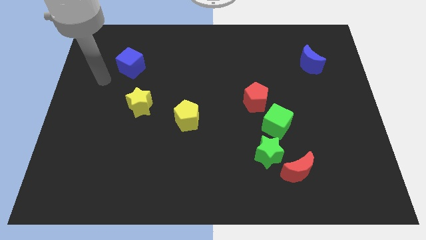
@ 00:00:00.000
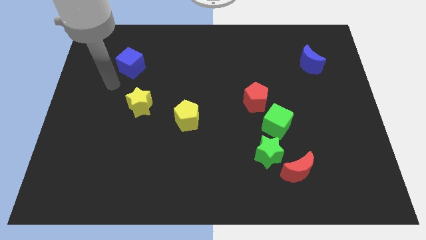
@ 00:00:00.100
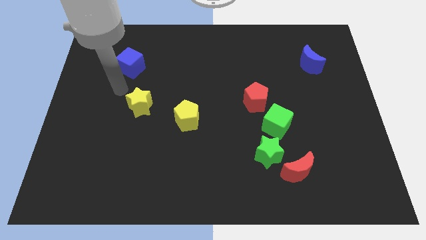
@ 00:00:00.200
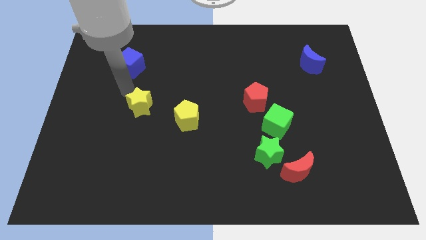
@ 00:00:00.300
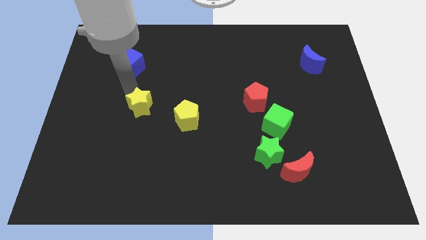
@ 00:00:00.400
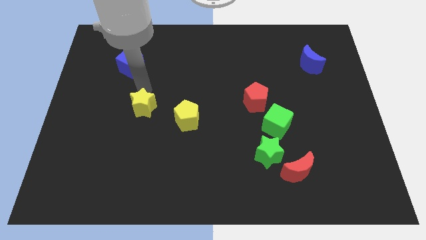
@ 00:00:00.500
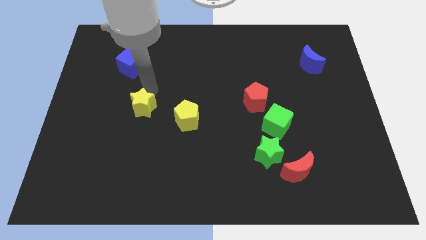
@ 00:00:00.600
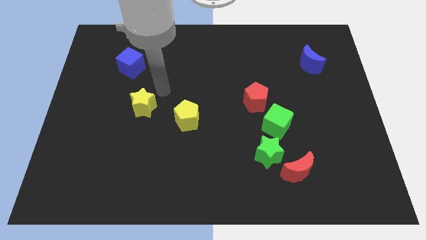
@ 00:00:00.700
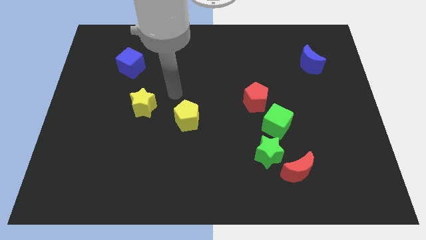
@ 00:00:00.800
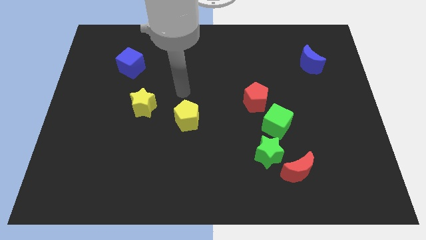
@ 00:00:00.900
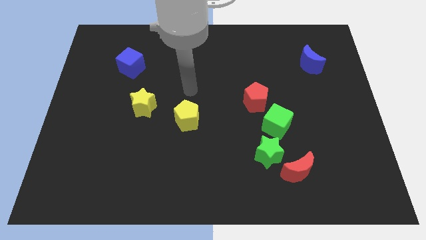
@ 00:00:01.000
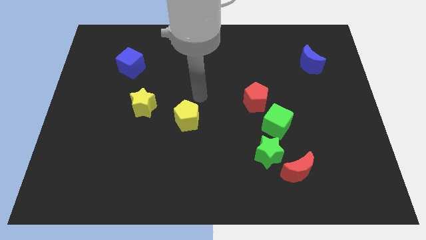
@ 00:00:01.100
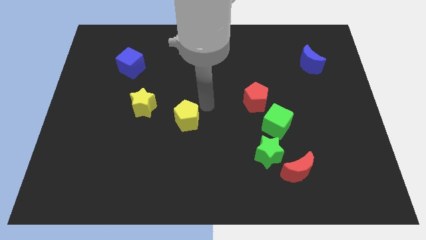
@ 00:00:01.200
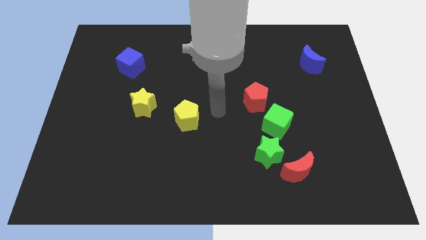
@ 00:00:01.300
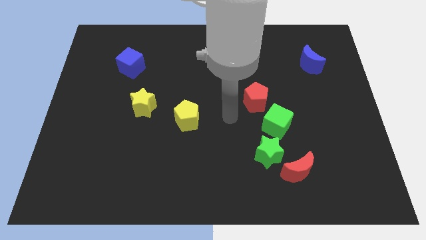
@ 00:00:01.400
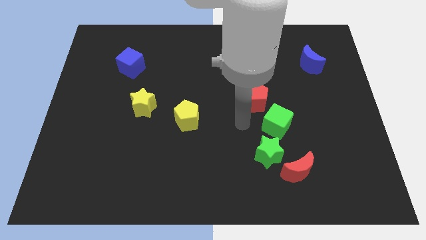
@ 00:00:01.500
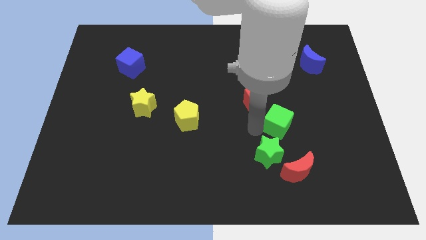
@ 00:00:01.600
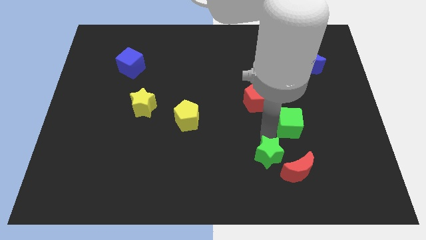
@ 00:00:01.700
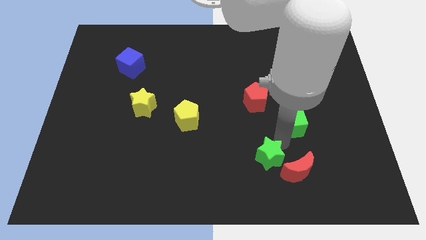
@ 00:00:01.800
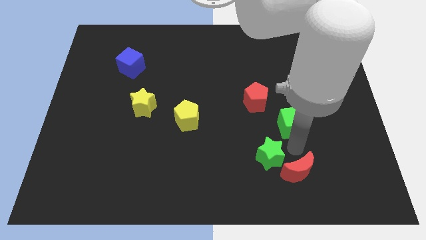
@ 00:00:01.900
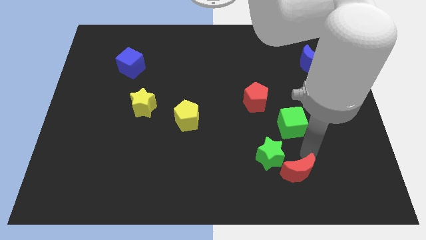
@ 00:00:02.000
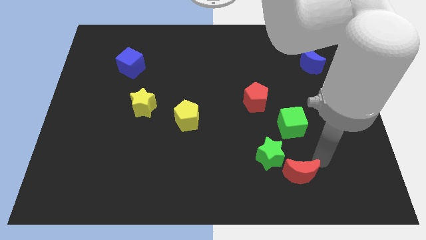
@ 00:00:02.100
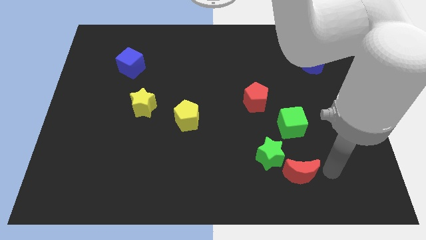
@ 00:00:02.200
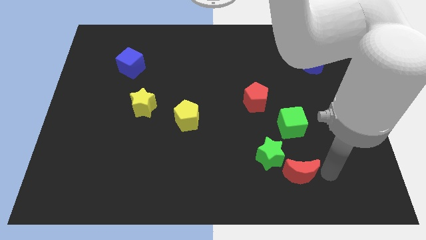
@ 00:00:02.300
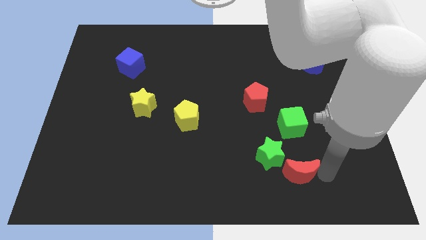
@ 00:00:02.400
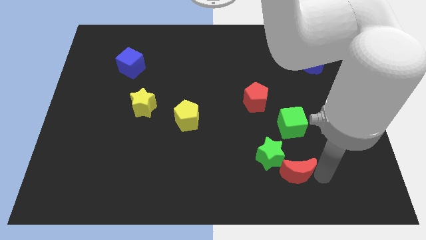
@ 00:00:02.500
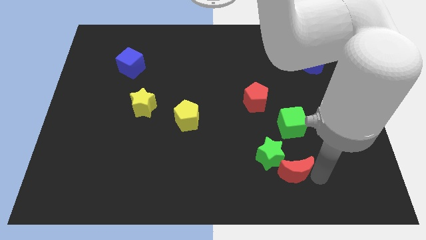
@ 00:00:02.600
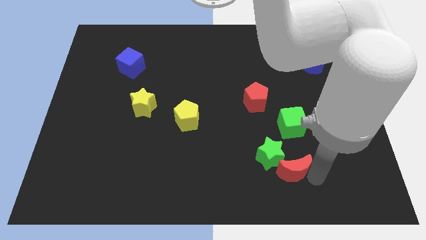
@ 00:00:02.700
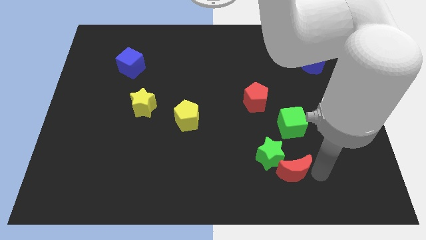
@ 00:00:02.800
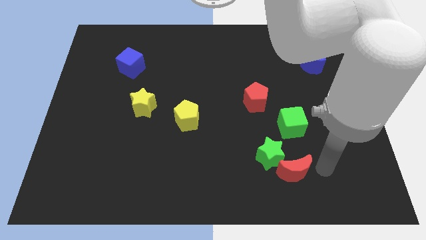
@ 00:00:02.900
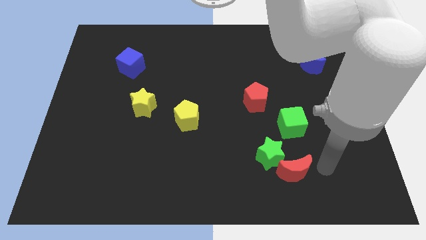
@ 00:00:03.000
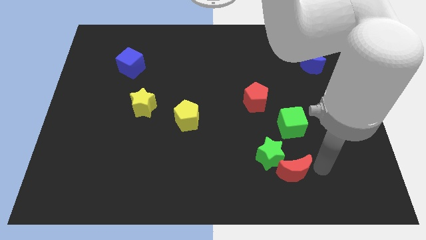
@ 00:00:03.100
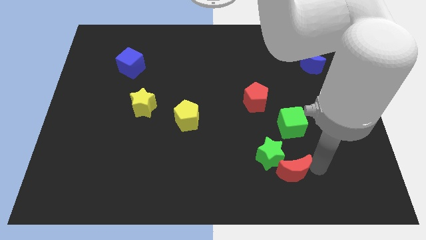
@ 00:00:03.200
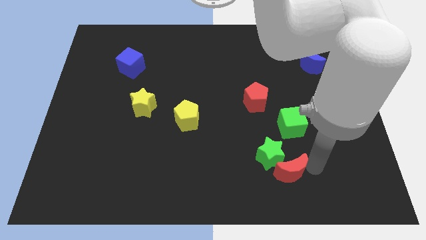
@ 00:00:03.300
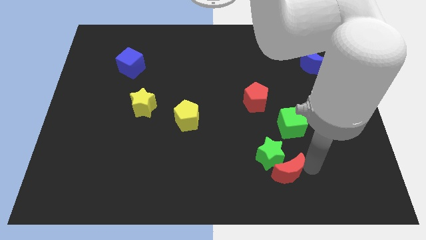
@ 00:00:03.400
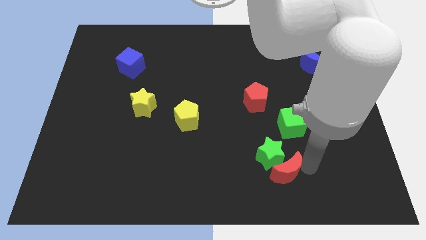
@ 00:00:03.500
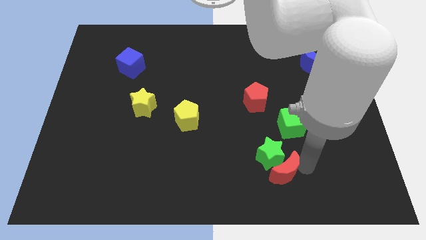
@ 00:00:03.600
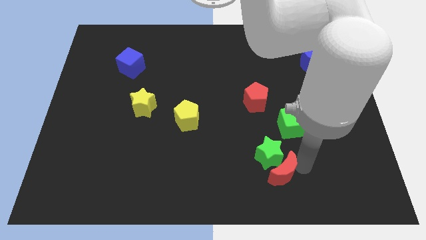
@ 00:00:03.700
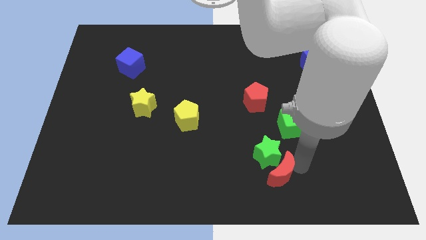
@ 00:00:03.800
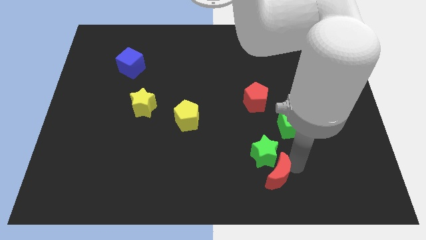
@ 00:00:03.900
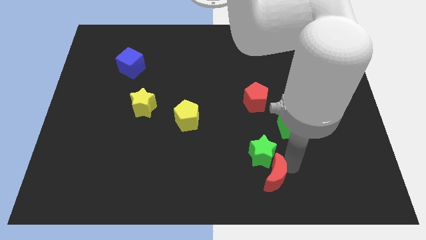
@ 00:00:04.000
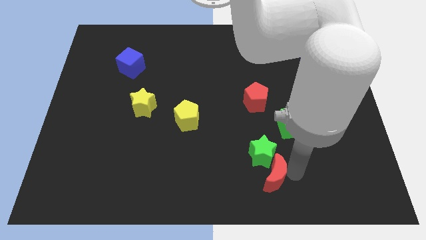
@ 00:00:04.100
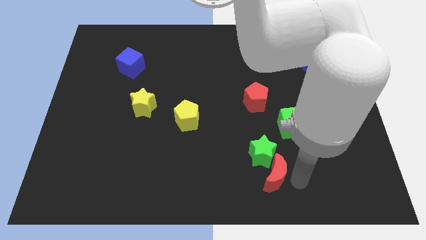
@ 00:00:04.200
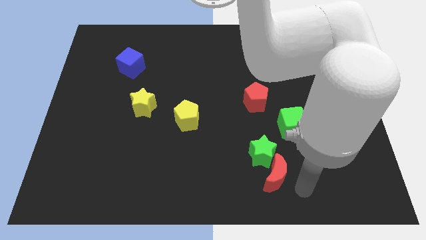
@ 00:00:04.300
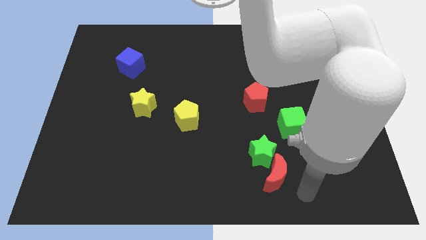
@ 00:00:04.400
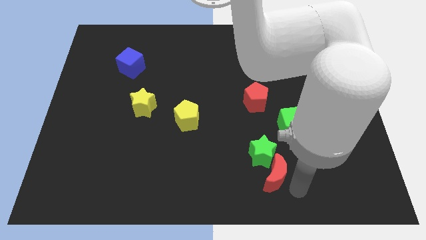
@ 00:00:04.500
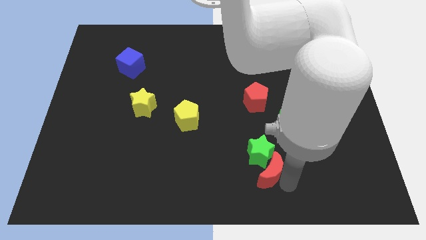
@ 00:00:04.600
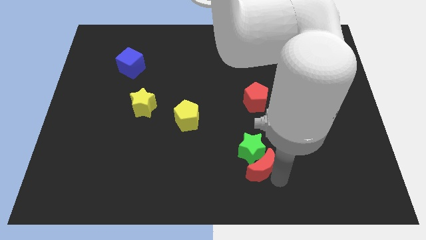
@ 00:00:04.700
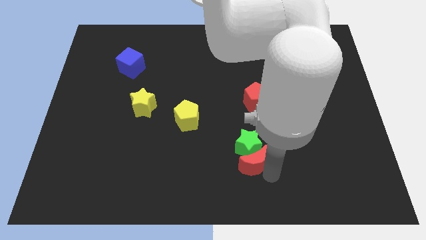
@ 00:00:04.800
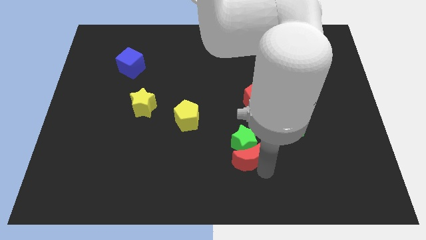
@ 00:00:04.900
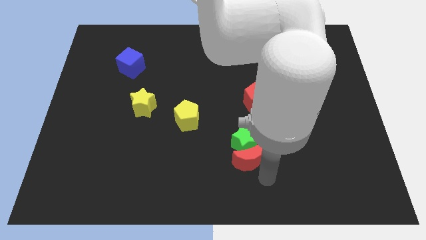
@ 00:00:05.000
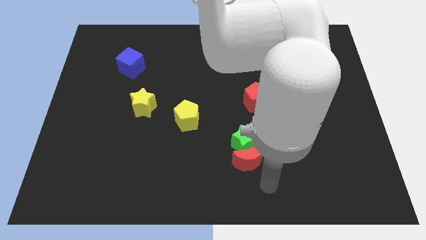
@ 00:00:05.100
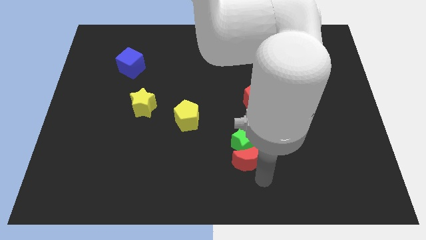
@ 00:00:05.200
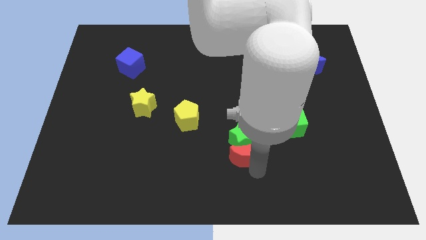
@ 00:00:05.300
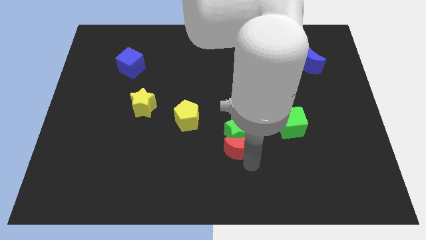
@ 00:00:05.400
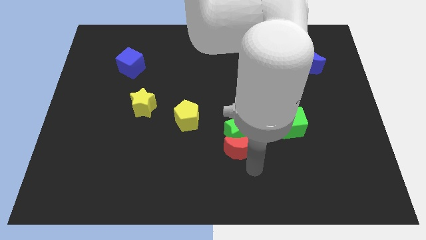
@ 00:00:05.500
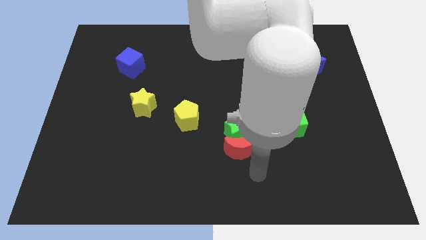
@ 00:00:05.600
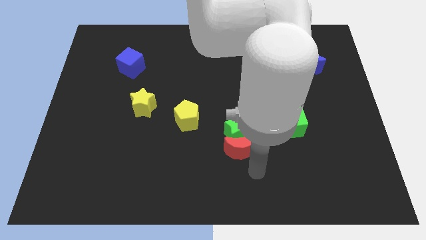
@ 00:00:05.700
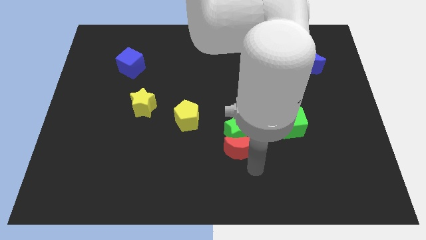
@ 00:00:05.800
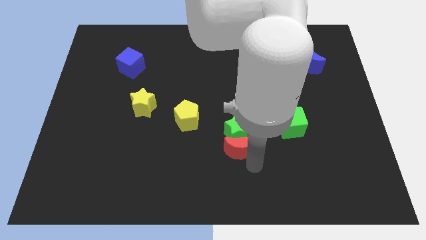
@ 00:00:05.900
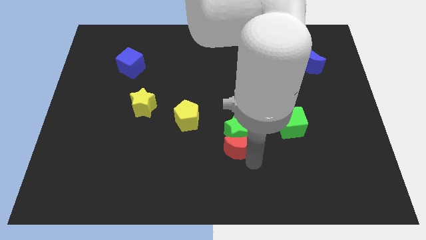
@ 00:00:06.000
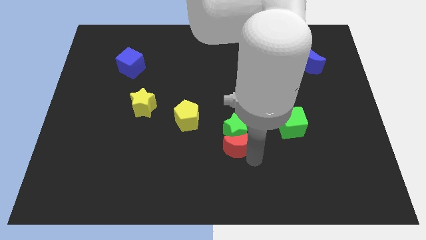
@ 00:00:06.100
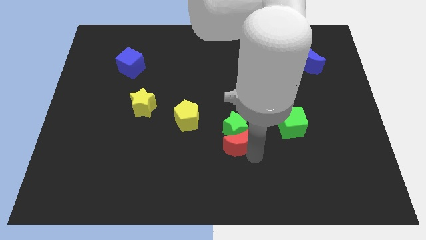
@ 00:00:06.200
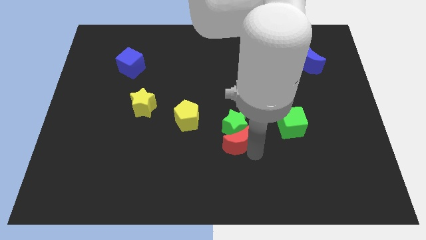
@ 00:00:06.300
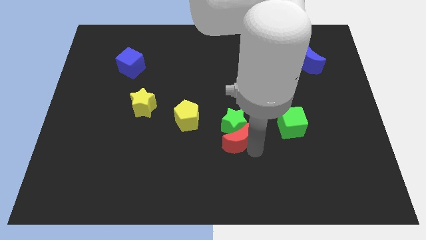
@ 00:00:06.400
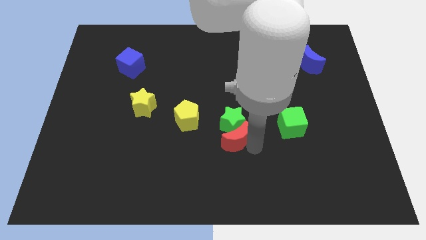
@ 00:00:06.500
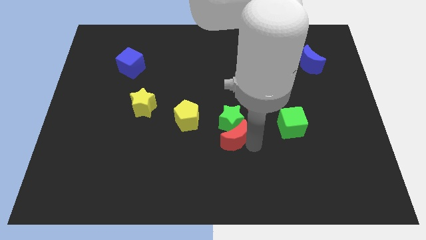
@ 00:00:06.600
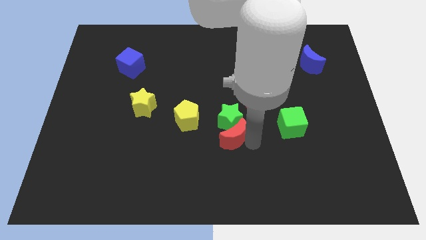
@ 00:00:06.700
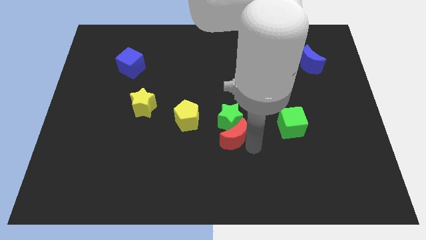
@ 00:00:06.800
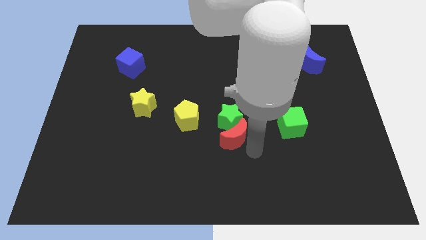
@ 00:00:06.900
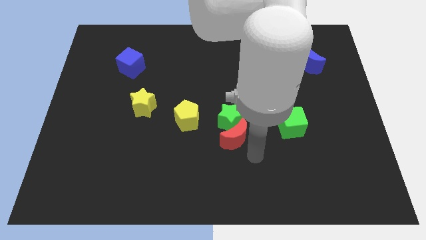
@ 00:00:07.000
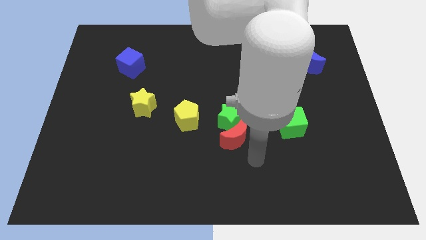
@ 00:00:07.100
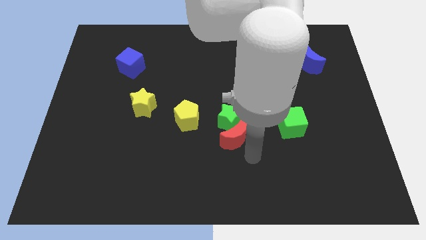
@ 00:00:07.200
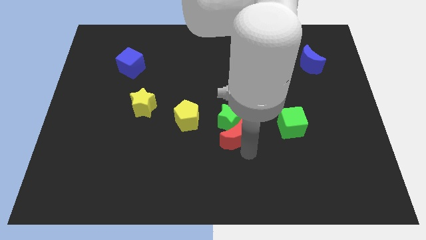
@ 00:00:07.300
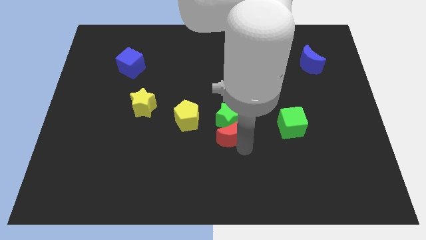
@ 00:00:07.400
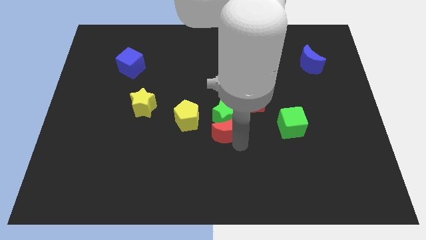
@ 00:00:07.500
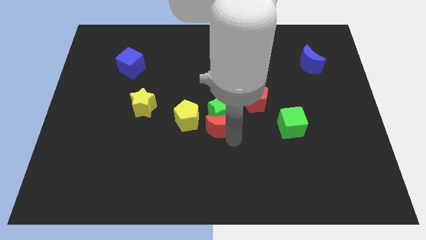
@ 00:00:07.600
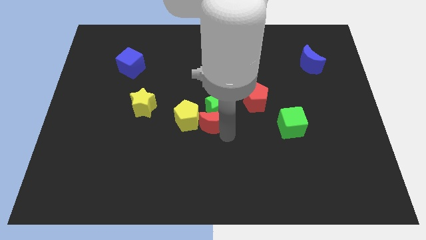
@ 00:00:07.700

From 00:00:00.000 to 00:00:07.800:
move the red moon upwards and then to the left
